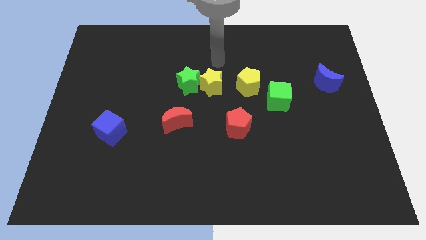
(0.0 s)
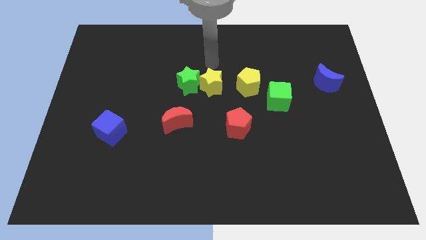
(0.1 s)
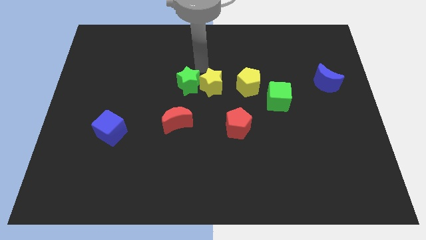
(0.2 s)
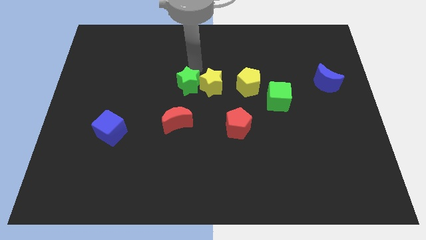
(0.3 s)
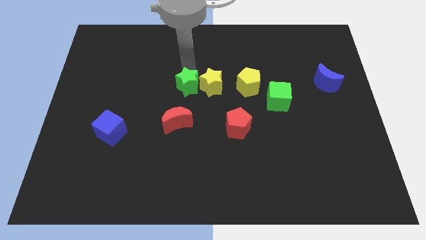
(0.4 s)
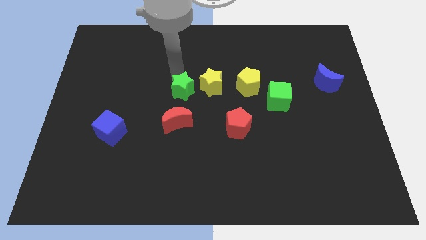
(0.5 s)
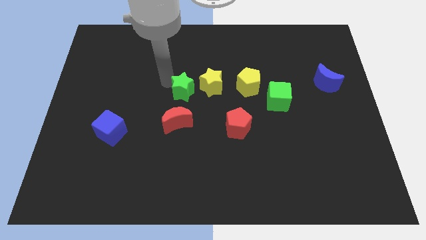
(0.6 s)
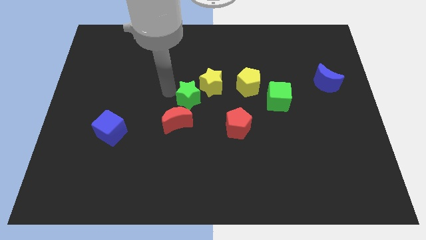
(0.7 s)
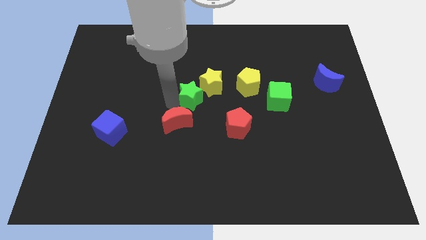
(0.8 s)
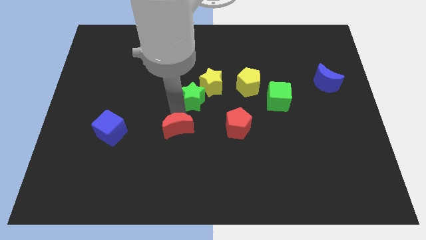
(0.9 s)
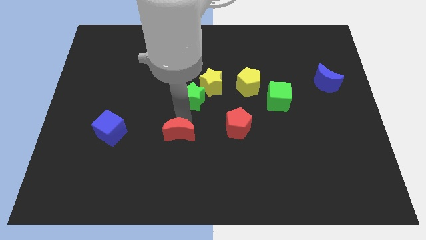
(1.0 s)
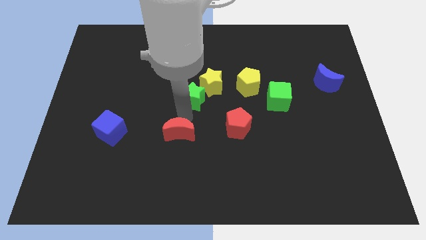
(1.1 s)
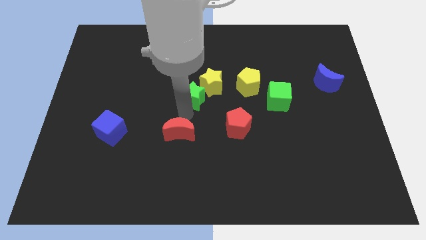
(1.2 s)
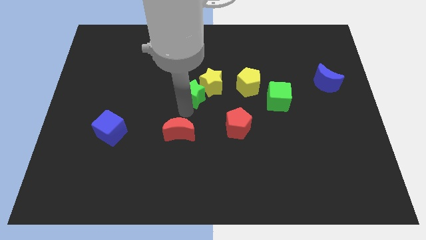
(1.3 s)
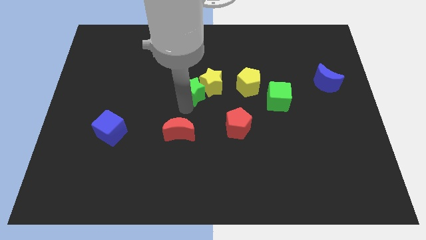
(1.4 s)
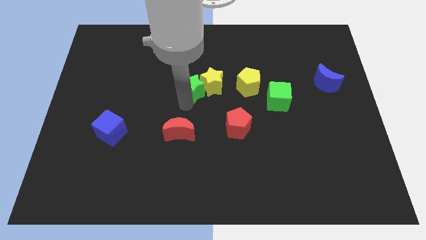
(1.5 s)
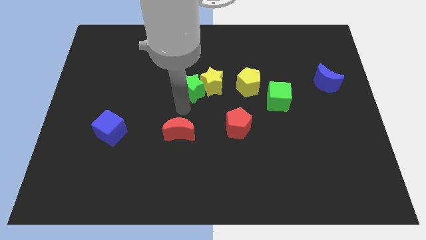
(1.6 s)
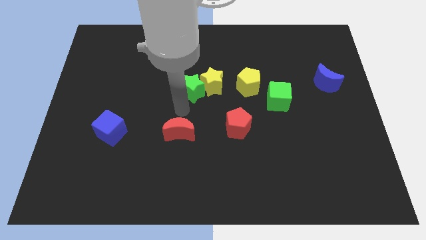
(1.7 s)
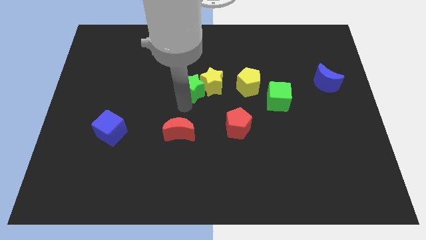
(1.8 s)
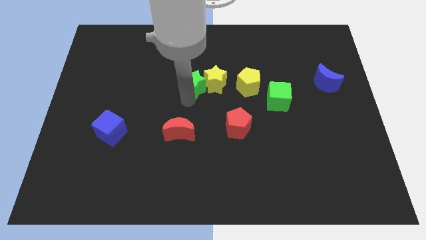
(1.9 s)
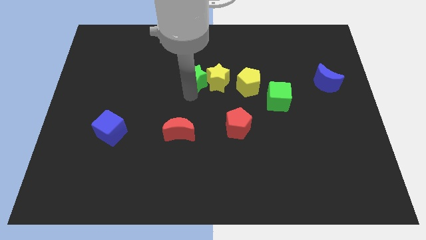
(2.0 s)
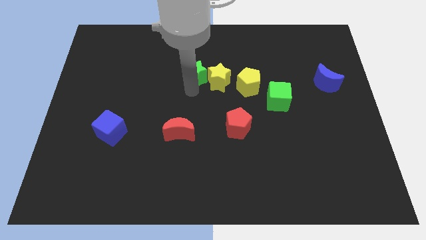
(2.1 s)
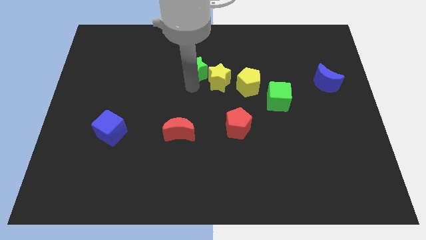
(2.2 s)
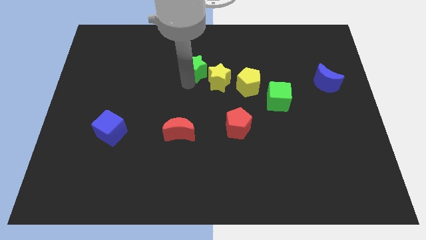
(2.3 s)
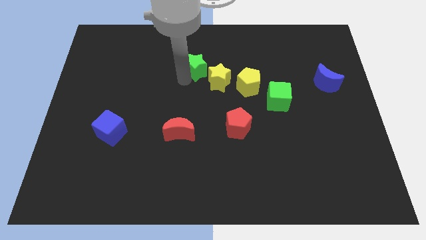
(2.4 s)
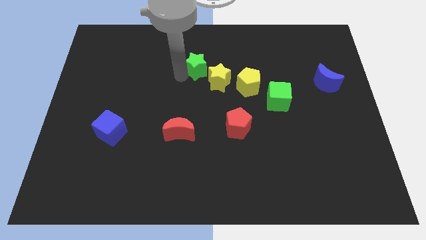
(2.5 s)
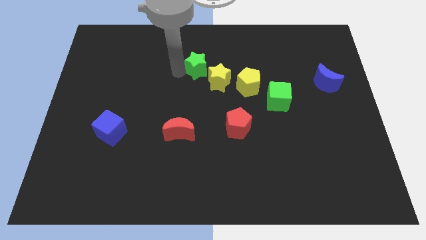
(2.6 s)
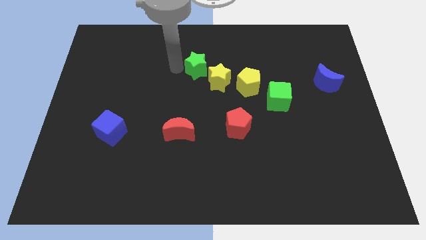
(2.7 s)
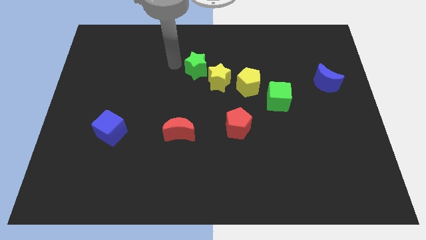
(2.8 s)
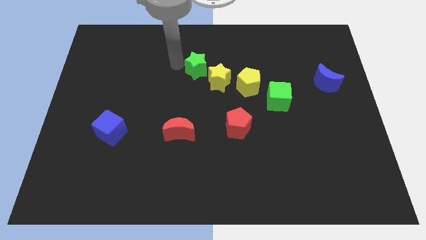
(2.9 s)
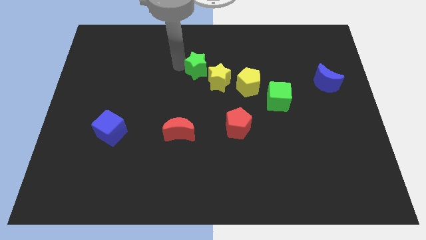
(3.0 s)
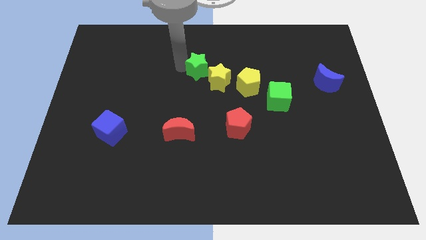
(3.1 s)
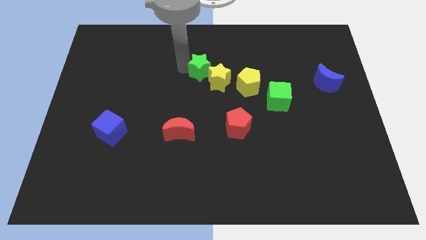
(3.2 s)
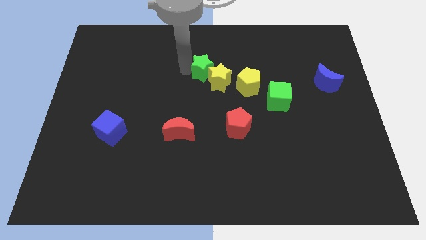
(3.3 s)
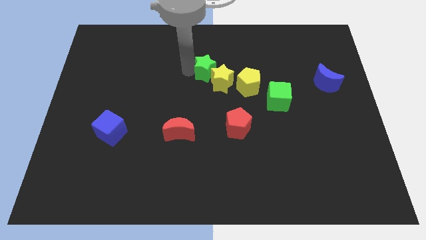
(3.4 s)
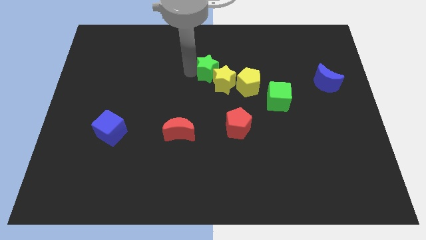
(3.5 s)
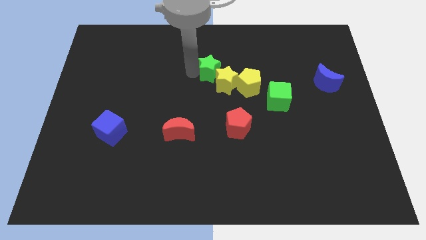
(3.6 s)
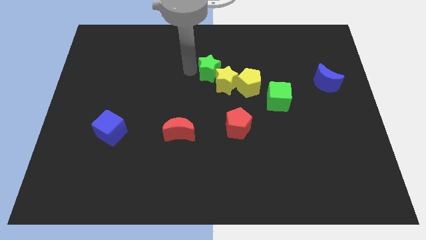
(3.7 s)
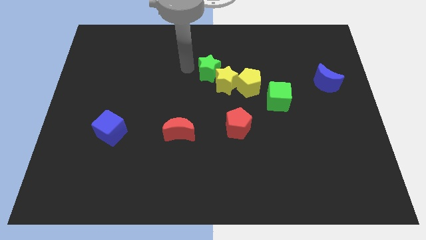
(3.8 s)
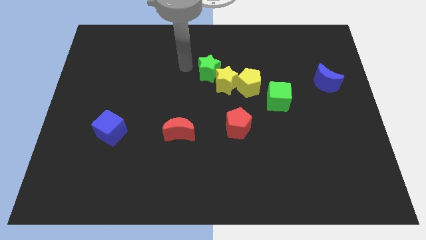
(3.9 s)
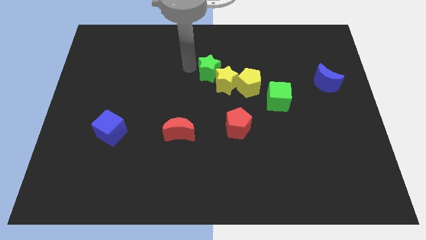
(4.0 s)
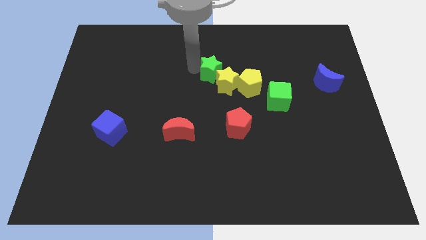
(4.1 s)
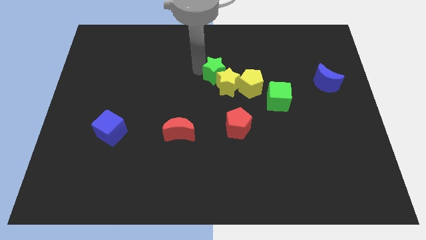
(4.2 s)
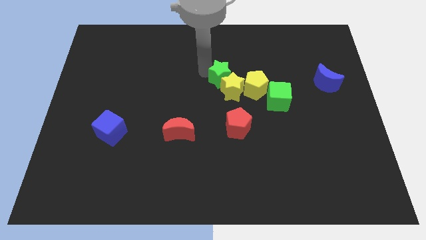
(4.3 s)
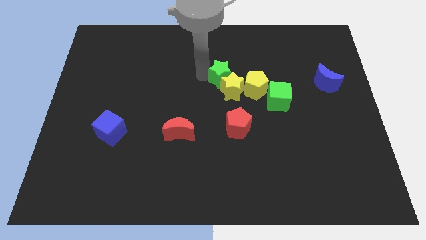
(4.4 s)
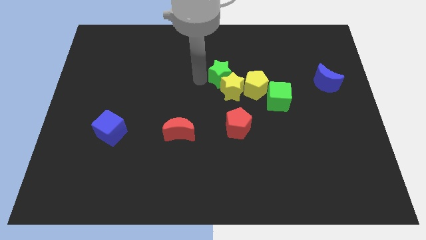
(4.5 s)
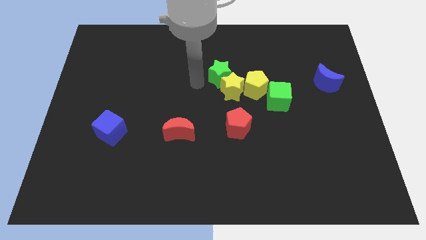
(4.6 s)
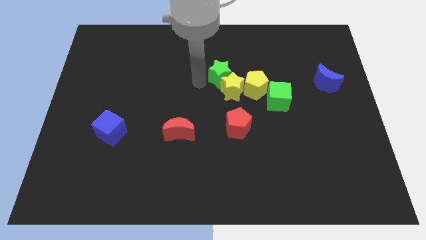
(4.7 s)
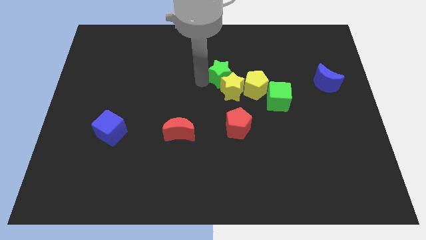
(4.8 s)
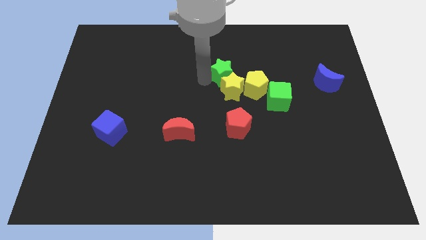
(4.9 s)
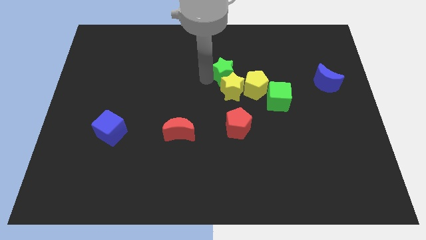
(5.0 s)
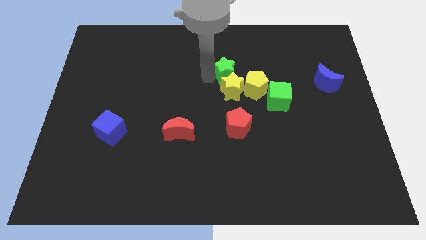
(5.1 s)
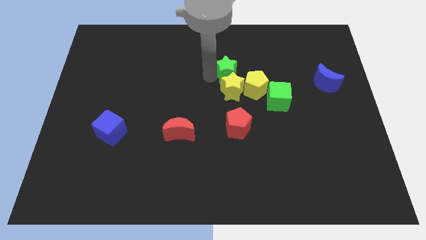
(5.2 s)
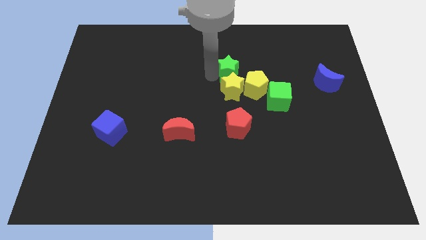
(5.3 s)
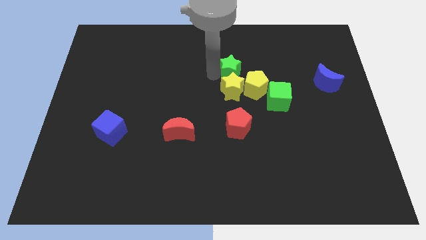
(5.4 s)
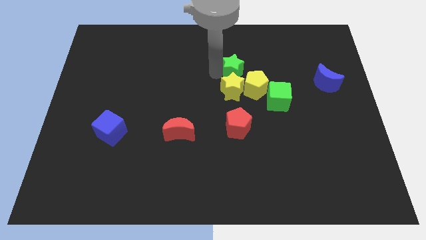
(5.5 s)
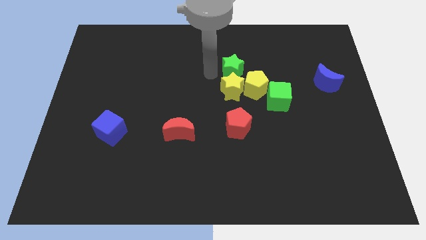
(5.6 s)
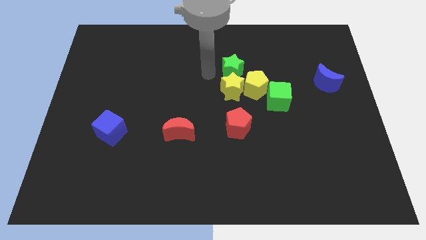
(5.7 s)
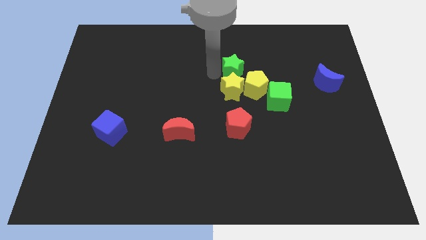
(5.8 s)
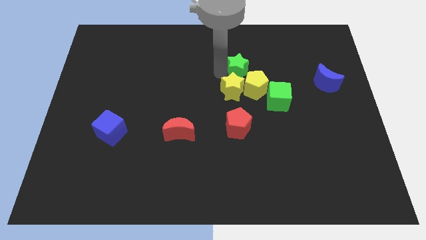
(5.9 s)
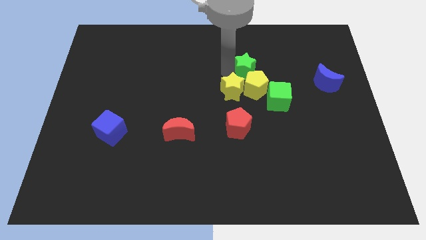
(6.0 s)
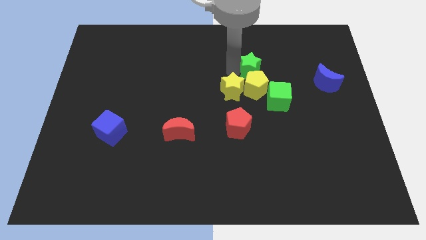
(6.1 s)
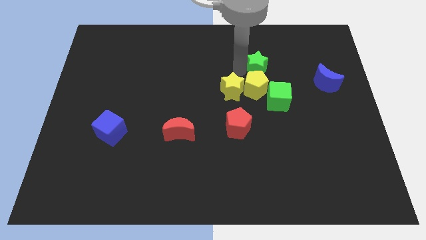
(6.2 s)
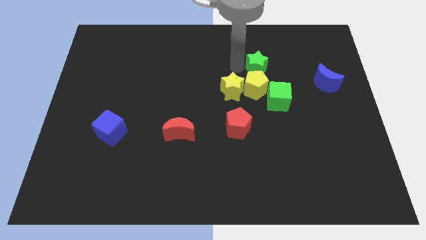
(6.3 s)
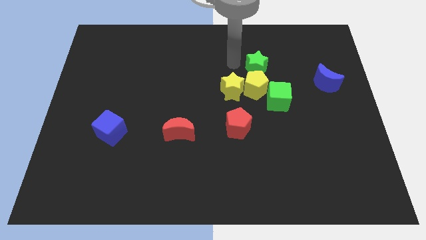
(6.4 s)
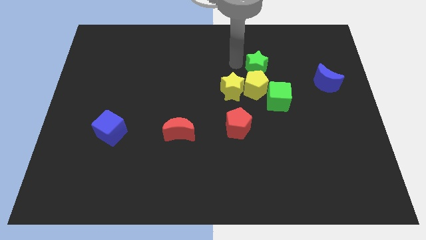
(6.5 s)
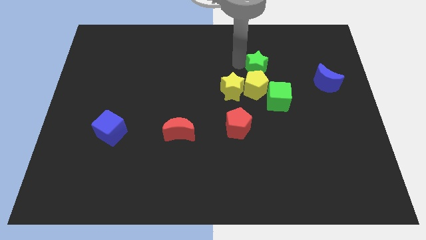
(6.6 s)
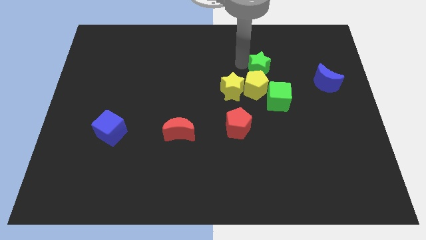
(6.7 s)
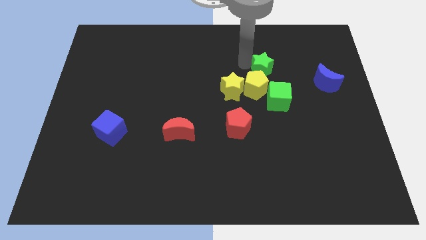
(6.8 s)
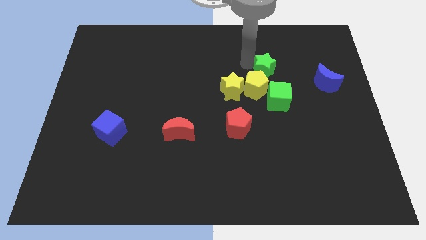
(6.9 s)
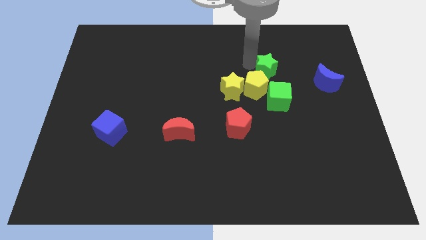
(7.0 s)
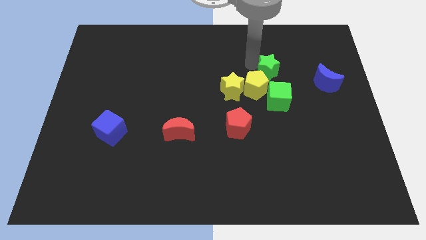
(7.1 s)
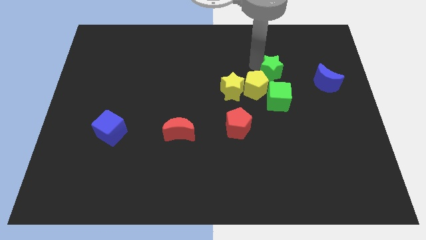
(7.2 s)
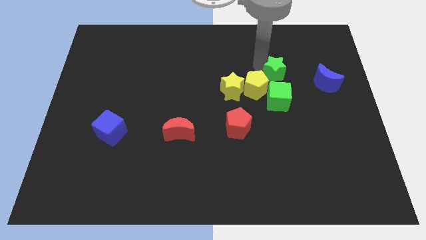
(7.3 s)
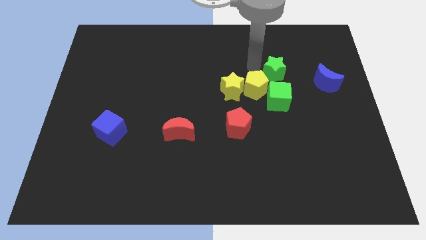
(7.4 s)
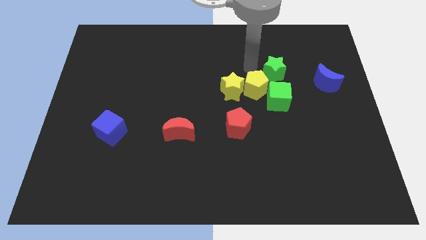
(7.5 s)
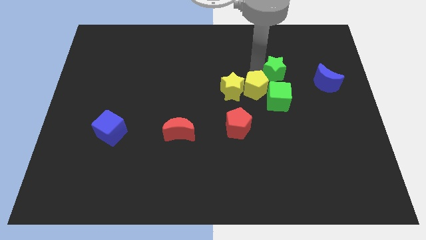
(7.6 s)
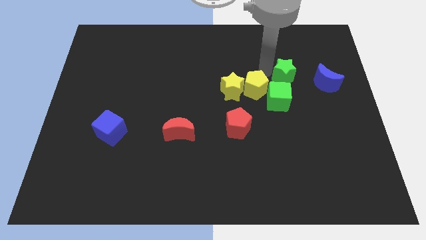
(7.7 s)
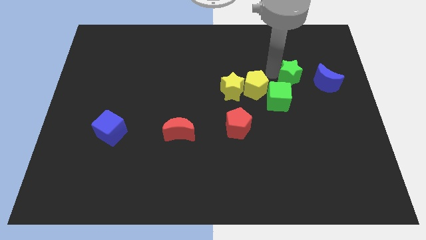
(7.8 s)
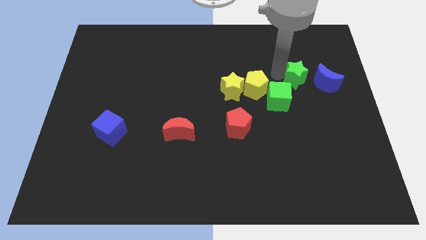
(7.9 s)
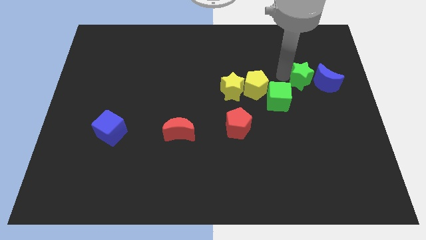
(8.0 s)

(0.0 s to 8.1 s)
put the green star close to the blue moon
